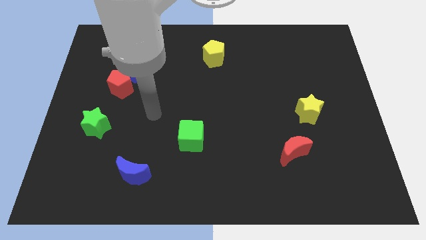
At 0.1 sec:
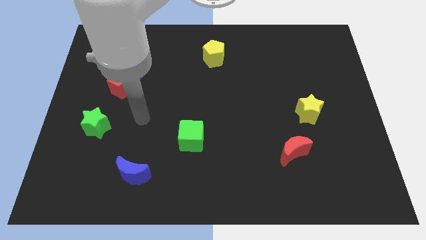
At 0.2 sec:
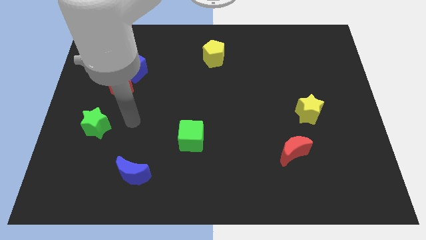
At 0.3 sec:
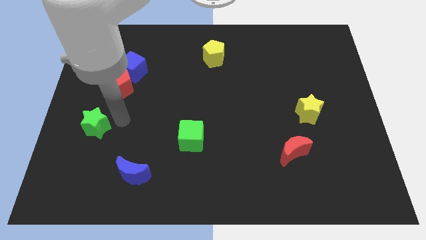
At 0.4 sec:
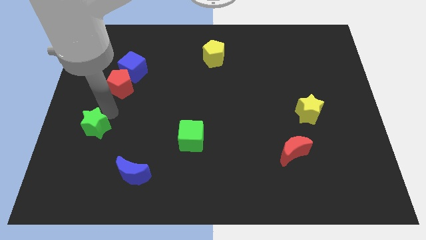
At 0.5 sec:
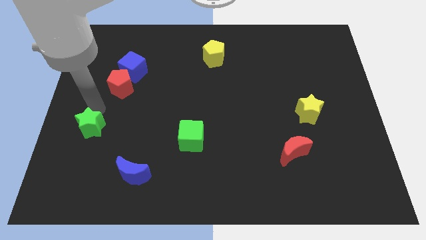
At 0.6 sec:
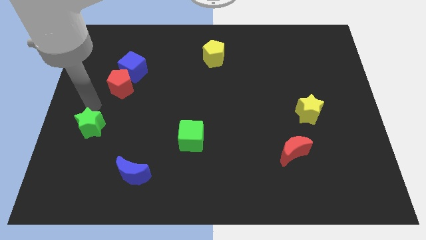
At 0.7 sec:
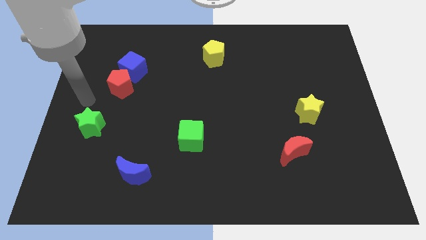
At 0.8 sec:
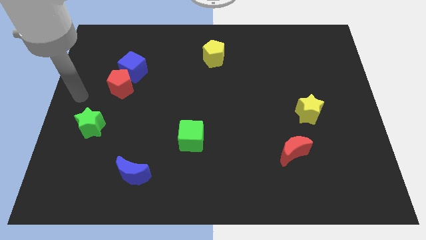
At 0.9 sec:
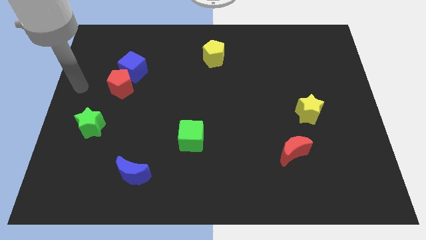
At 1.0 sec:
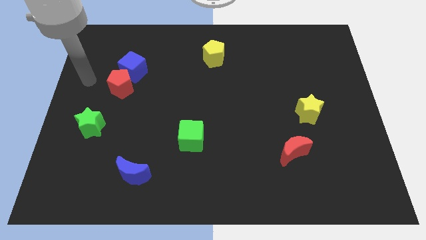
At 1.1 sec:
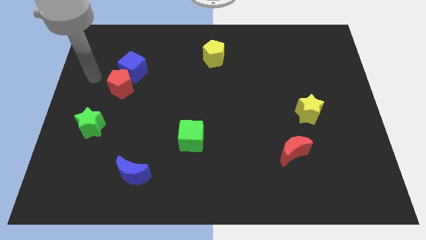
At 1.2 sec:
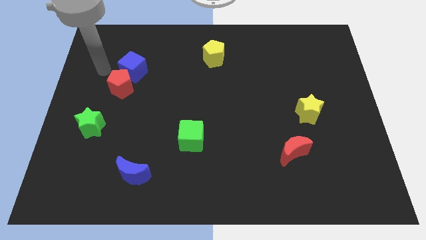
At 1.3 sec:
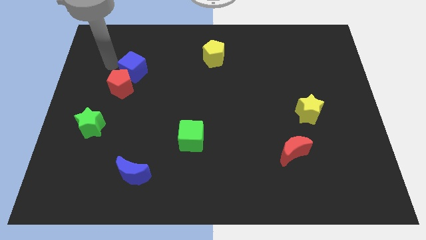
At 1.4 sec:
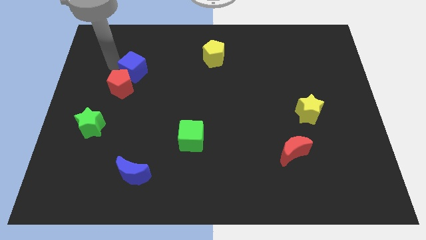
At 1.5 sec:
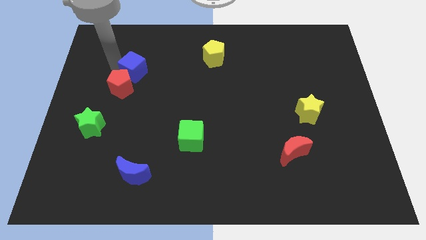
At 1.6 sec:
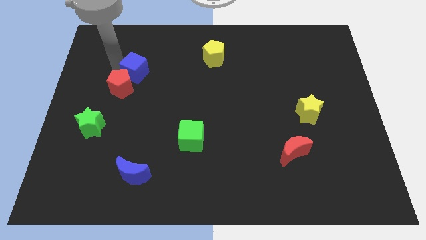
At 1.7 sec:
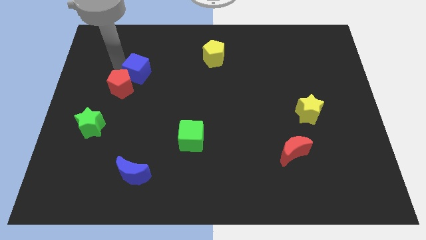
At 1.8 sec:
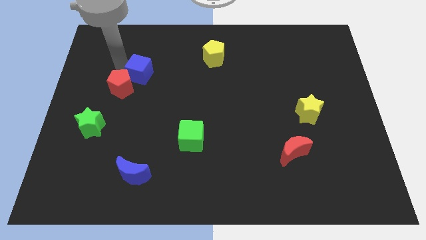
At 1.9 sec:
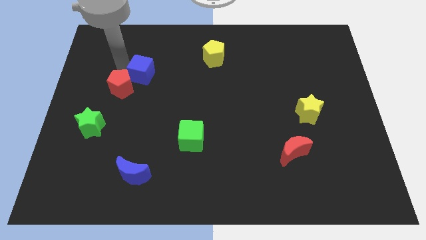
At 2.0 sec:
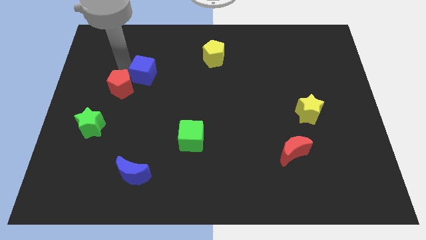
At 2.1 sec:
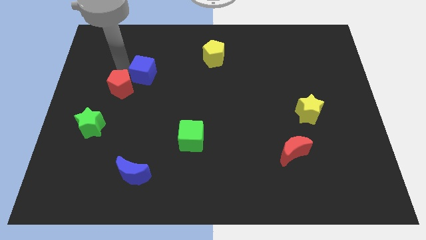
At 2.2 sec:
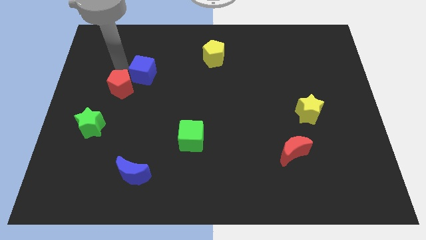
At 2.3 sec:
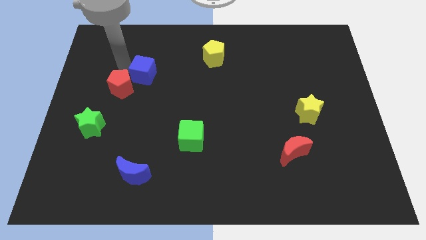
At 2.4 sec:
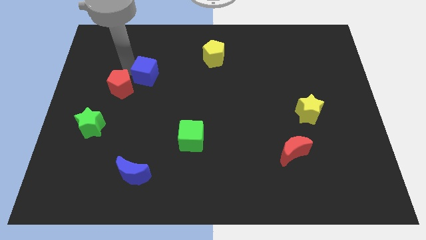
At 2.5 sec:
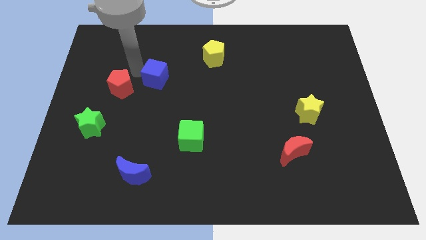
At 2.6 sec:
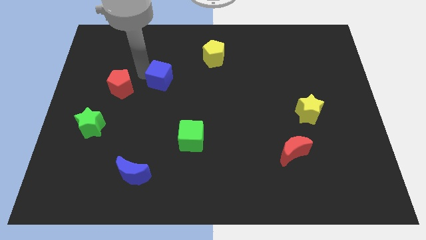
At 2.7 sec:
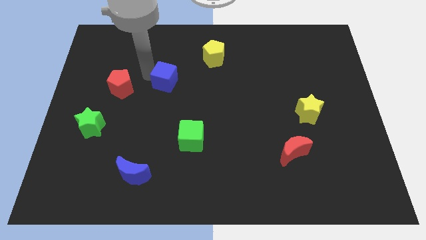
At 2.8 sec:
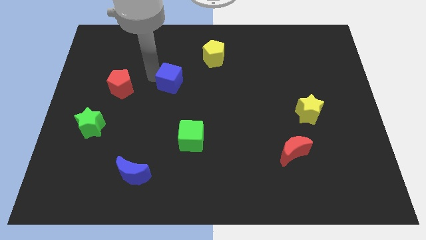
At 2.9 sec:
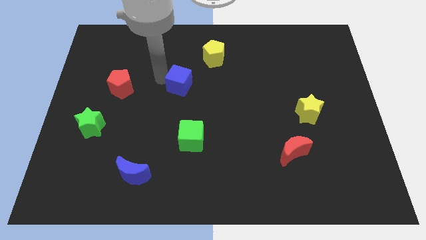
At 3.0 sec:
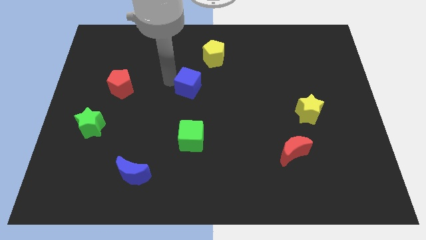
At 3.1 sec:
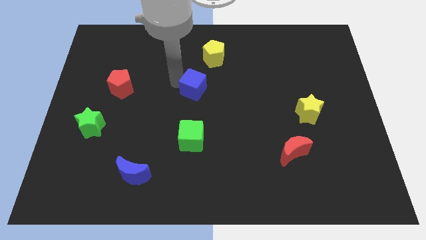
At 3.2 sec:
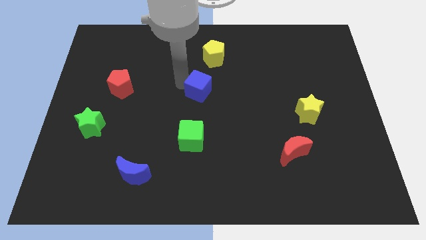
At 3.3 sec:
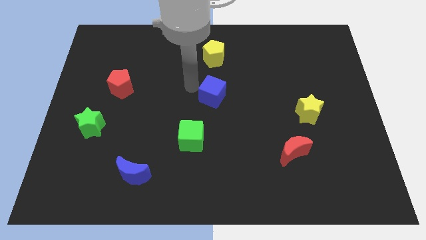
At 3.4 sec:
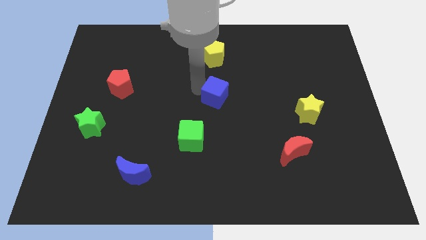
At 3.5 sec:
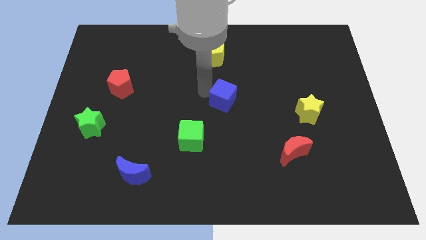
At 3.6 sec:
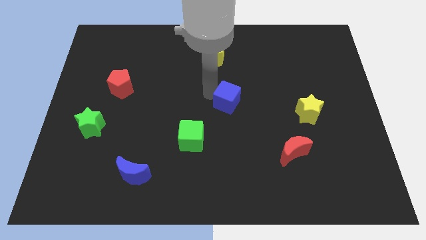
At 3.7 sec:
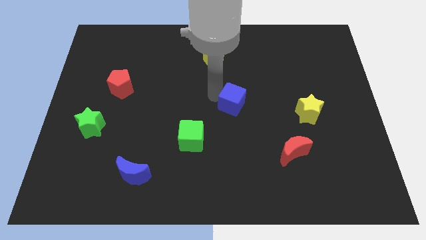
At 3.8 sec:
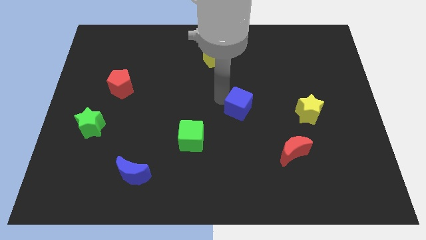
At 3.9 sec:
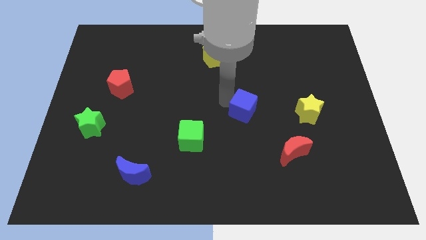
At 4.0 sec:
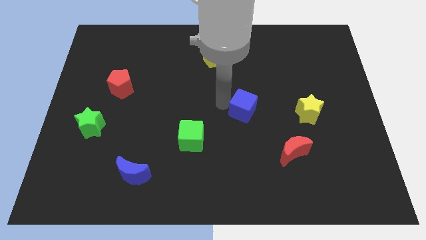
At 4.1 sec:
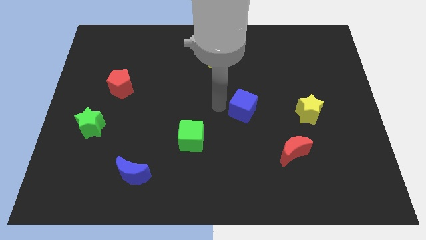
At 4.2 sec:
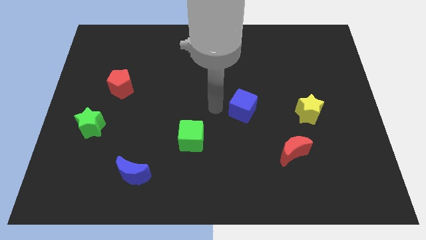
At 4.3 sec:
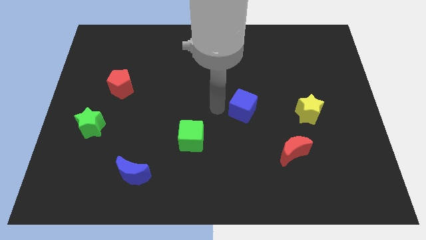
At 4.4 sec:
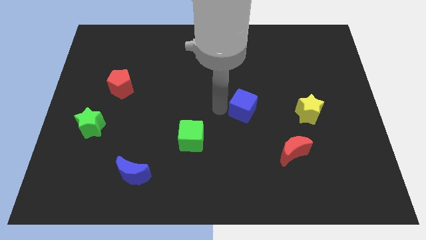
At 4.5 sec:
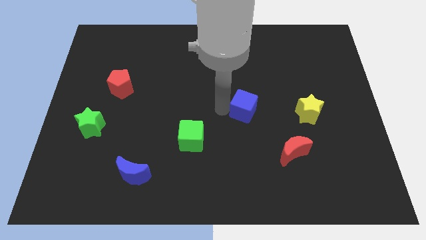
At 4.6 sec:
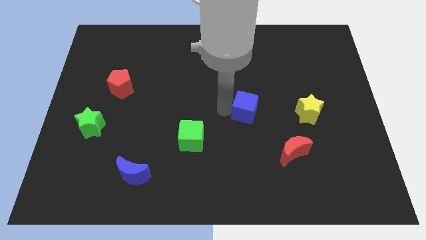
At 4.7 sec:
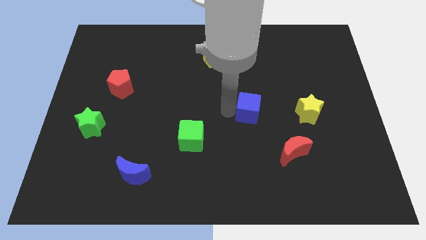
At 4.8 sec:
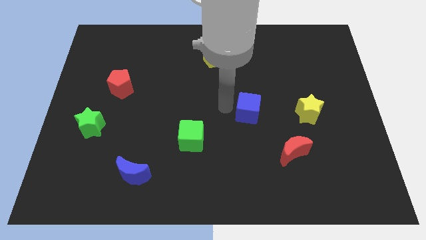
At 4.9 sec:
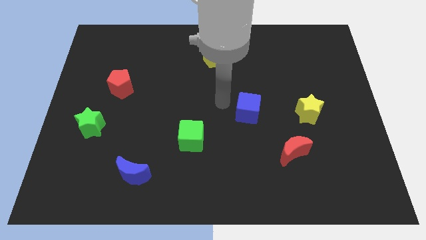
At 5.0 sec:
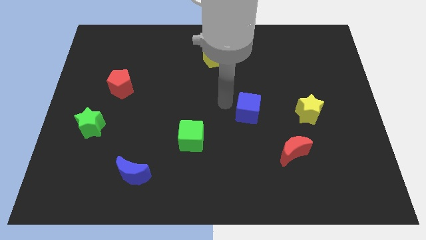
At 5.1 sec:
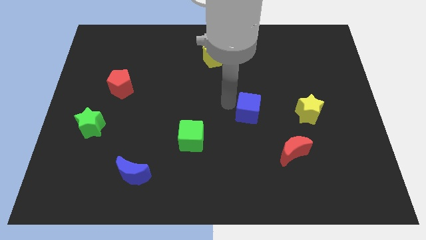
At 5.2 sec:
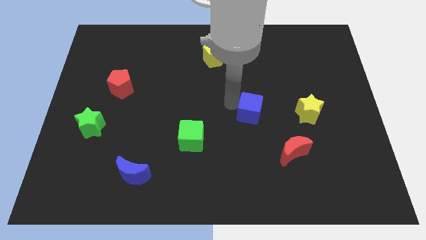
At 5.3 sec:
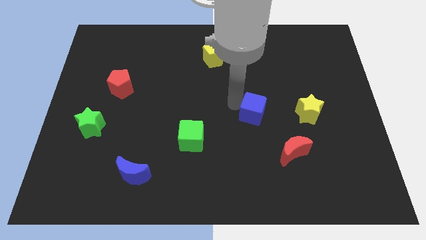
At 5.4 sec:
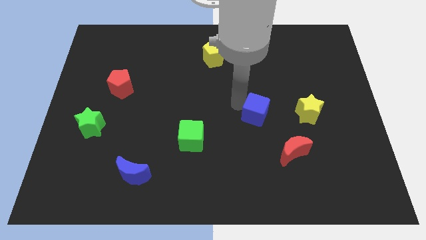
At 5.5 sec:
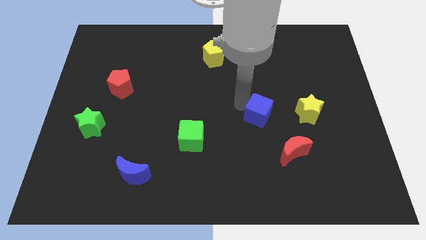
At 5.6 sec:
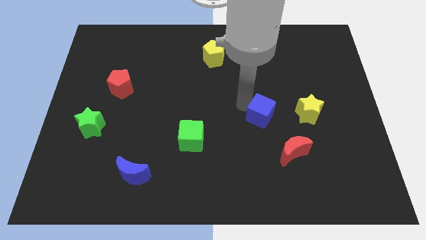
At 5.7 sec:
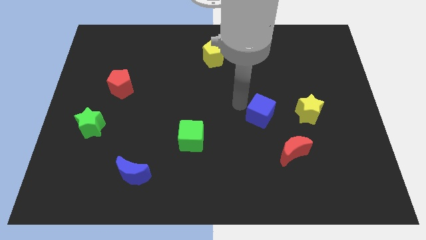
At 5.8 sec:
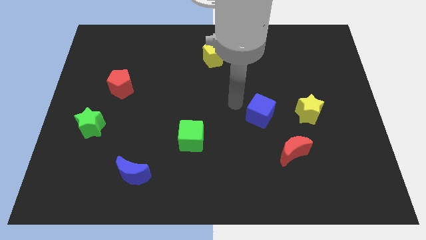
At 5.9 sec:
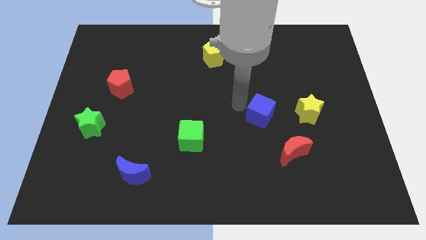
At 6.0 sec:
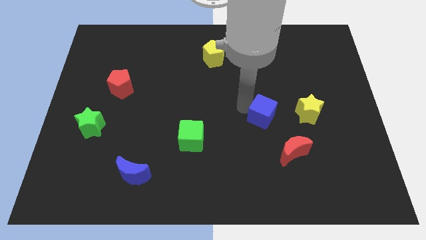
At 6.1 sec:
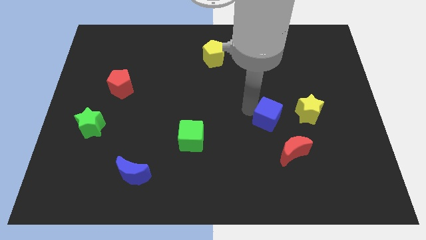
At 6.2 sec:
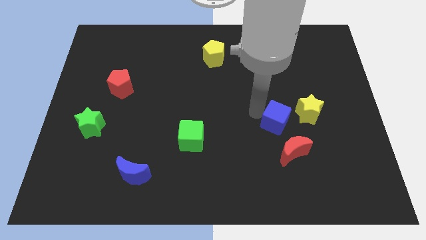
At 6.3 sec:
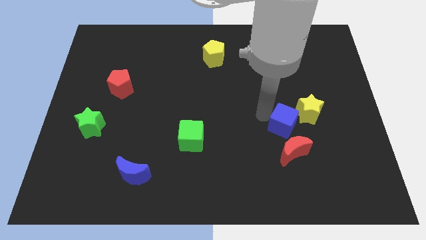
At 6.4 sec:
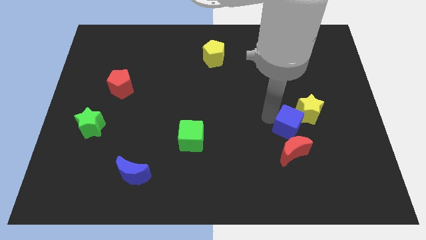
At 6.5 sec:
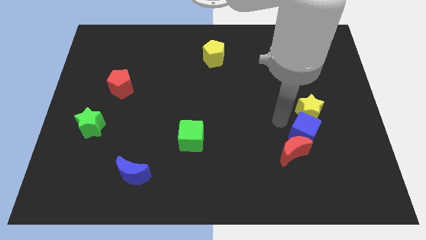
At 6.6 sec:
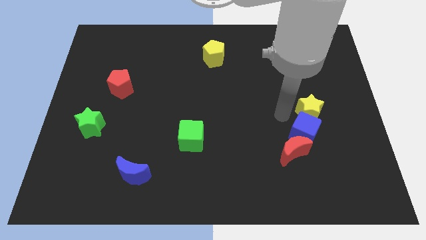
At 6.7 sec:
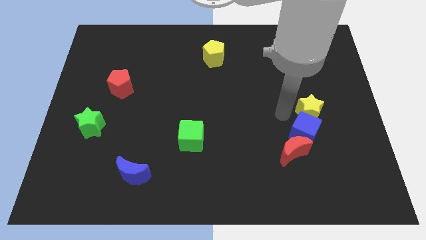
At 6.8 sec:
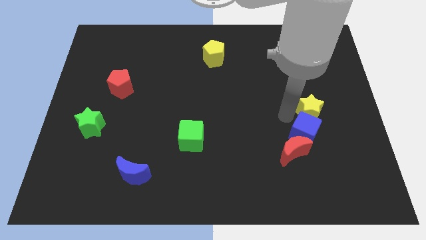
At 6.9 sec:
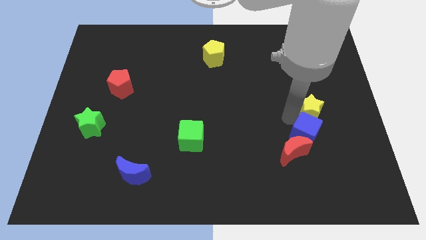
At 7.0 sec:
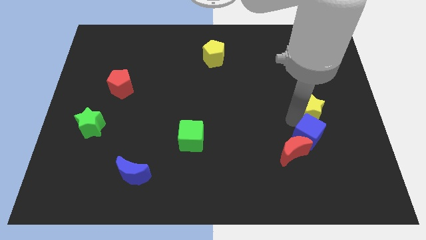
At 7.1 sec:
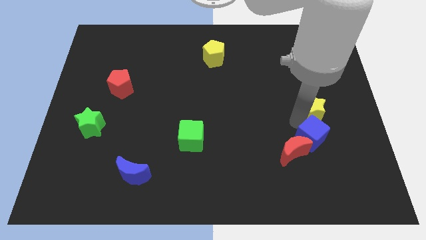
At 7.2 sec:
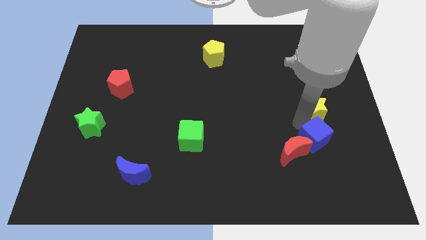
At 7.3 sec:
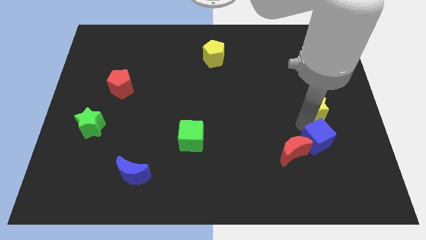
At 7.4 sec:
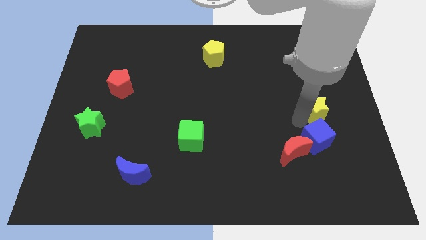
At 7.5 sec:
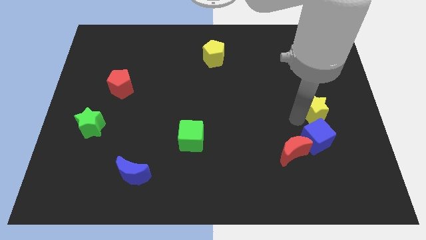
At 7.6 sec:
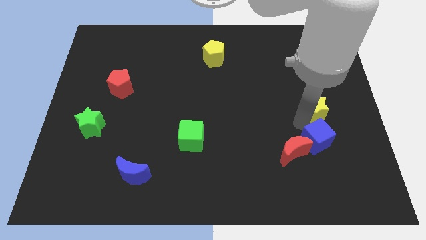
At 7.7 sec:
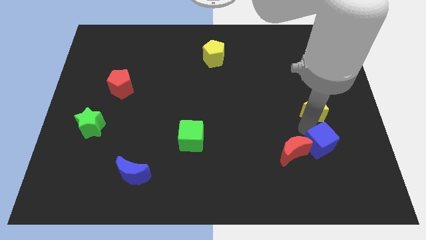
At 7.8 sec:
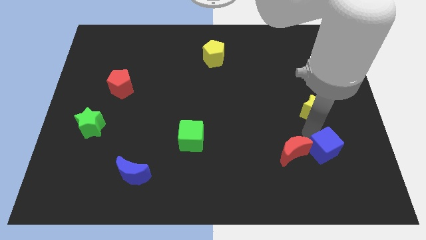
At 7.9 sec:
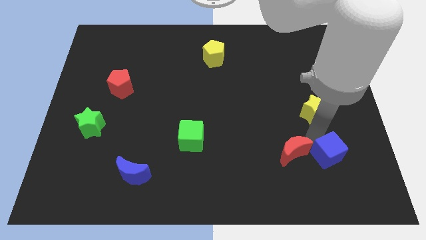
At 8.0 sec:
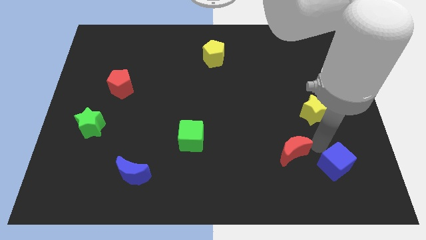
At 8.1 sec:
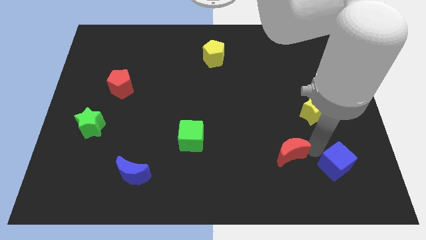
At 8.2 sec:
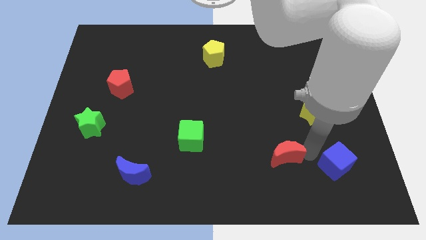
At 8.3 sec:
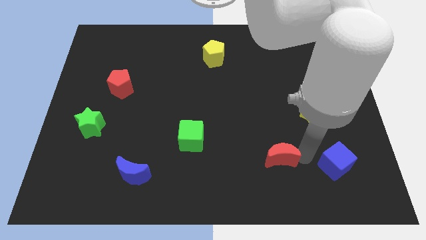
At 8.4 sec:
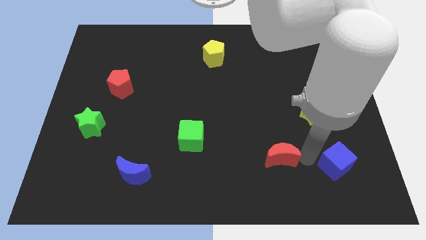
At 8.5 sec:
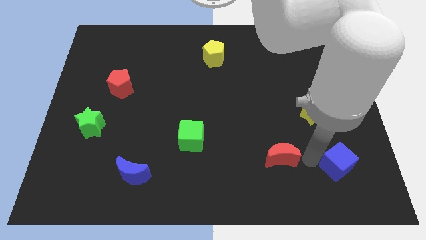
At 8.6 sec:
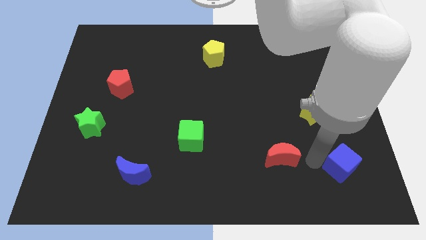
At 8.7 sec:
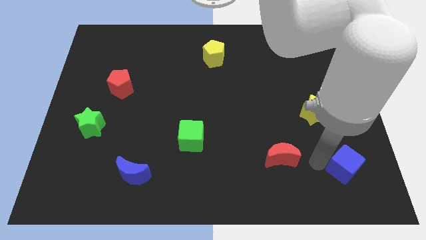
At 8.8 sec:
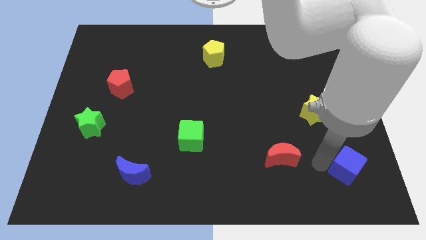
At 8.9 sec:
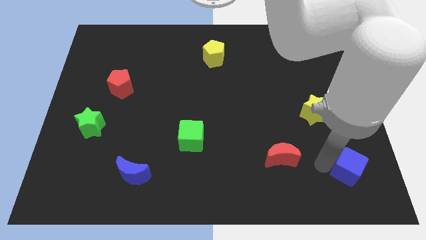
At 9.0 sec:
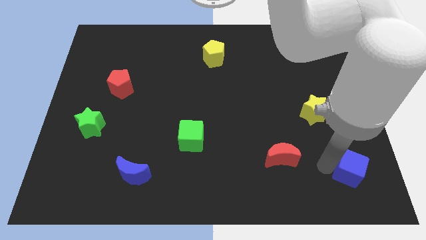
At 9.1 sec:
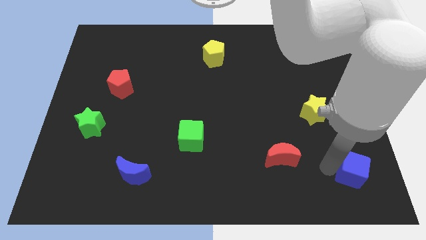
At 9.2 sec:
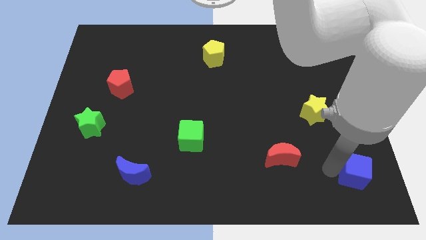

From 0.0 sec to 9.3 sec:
put the blue cube to the bottom right of the board
